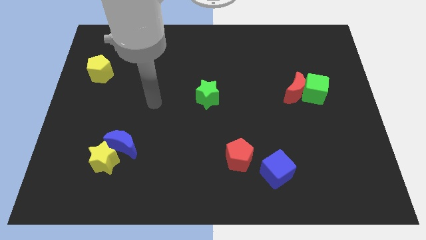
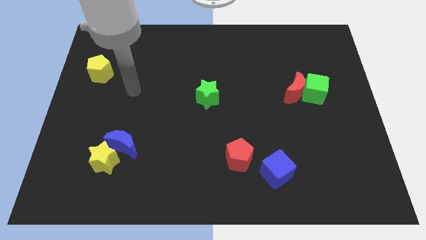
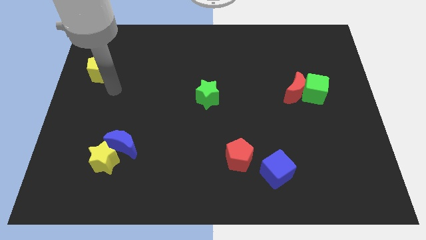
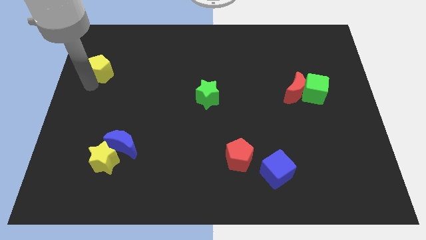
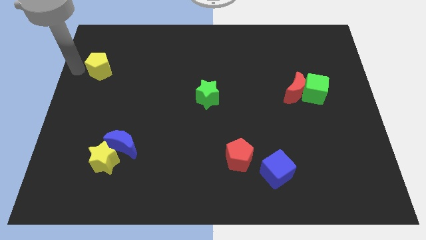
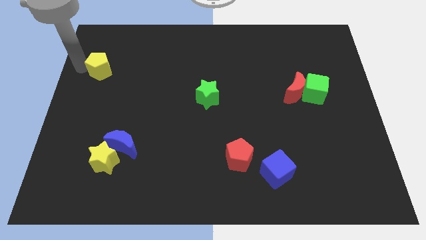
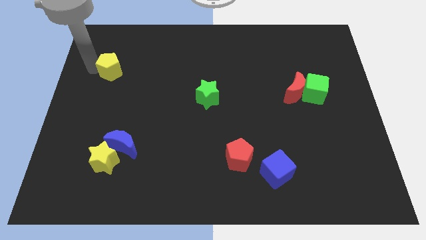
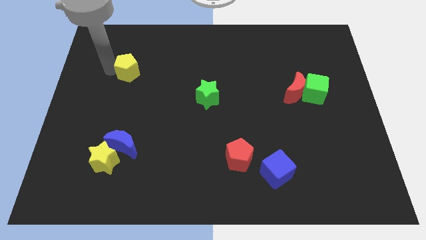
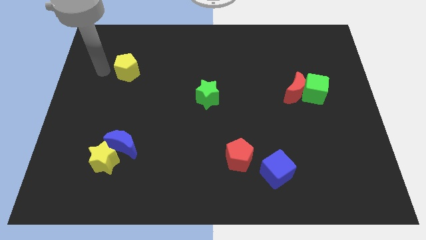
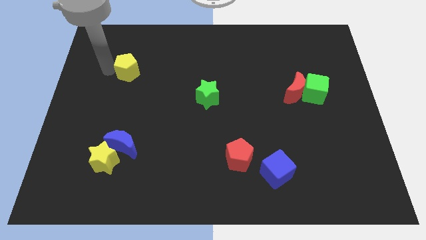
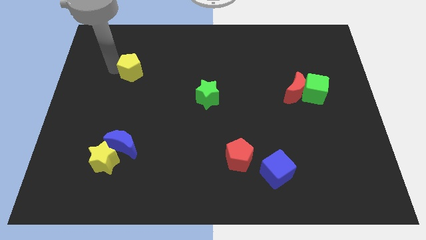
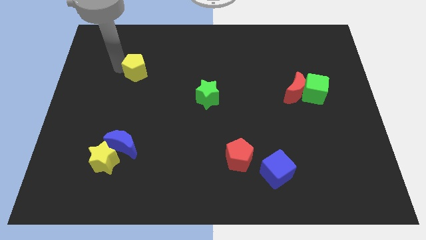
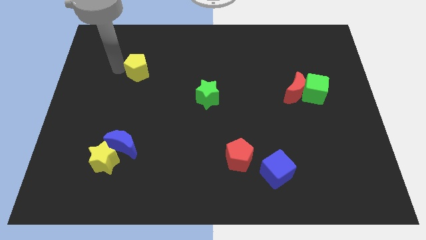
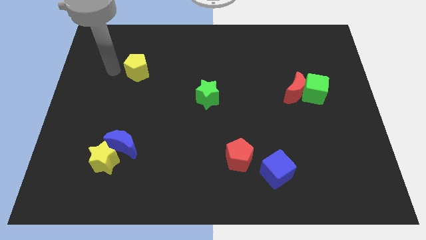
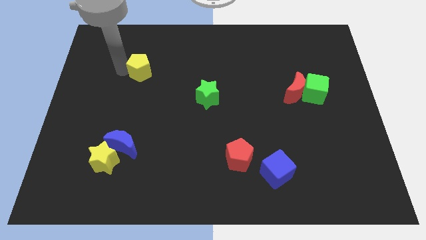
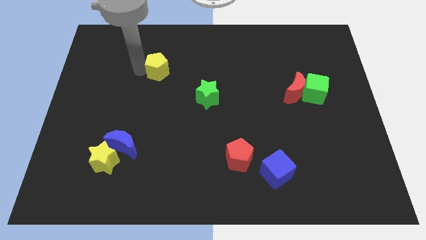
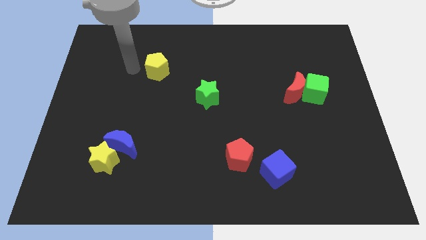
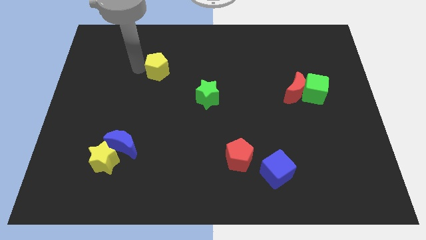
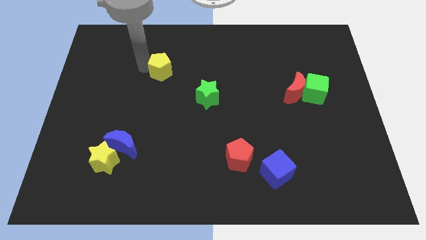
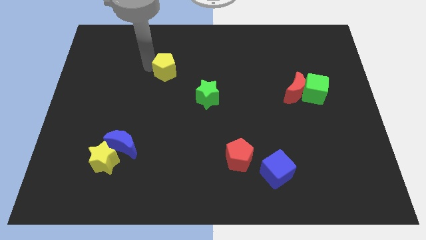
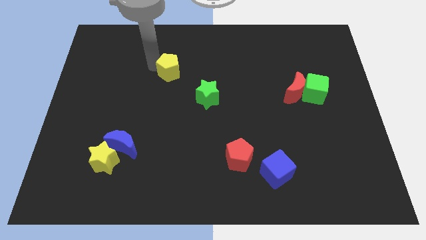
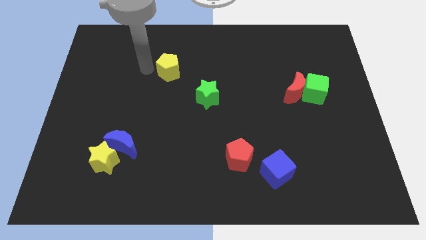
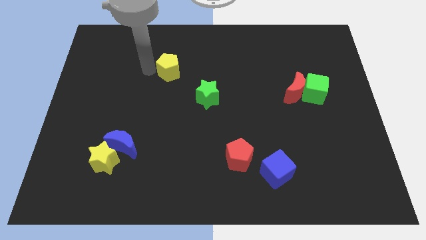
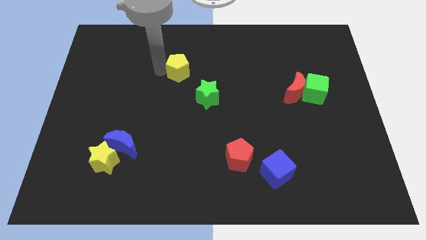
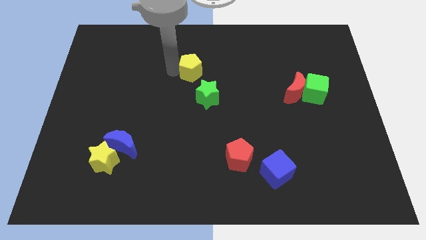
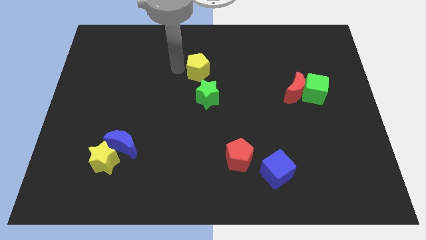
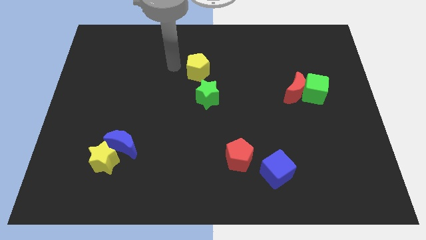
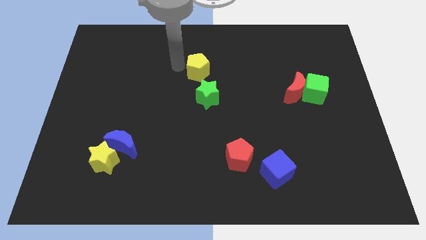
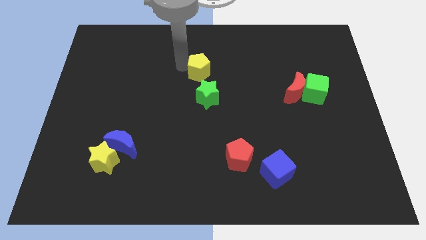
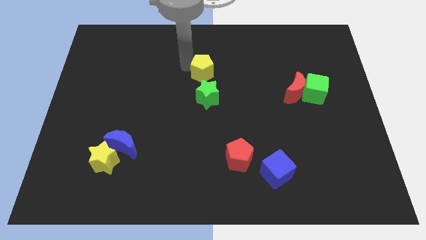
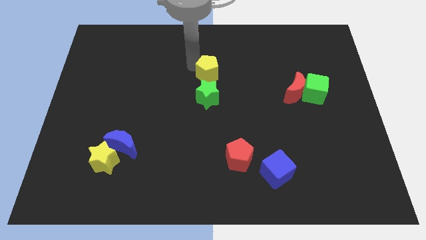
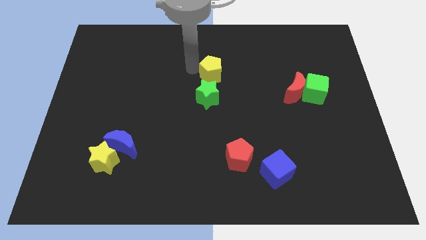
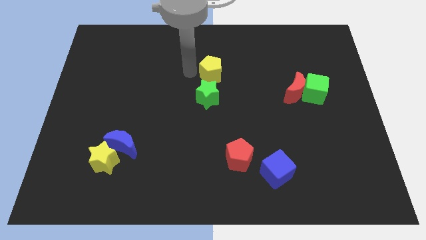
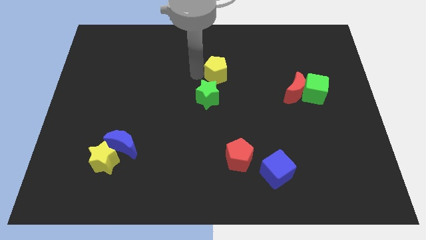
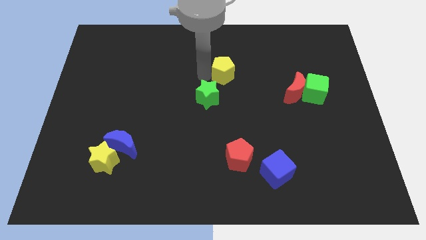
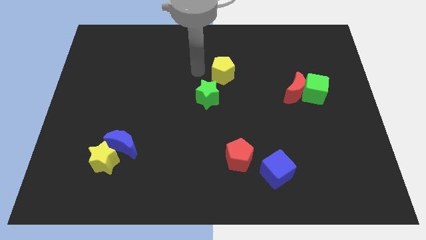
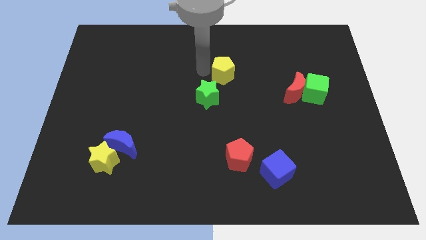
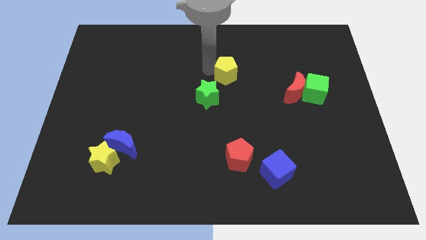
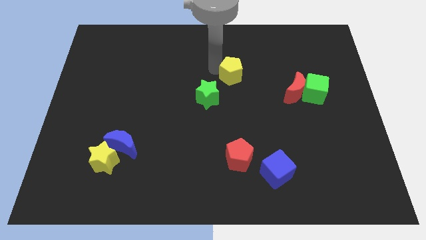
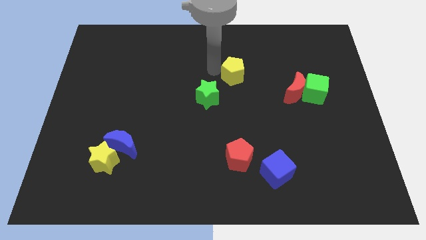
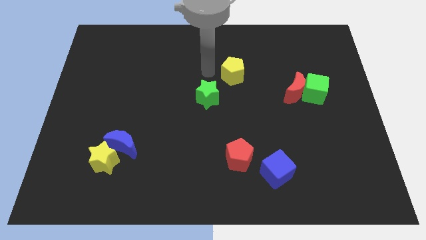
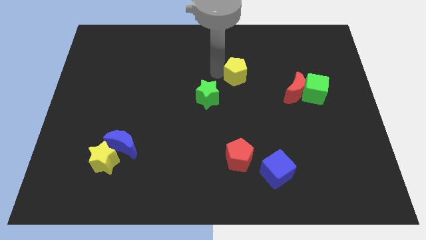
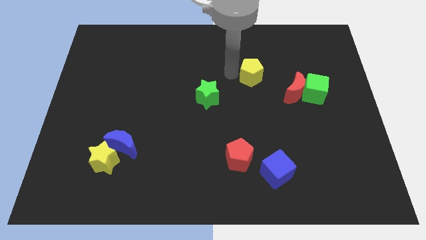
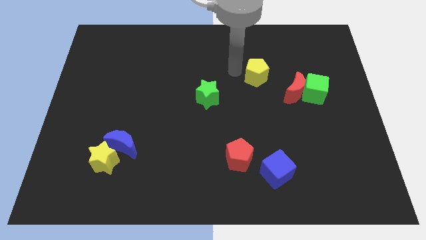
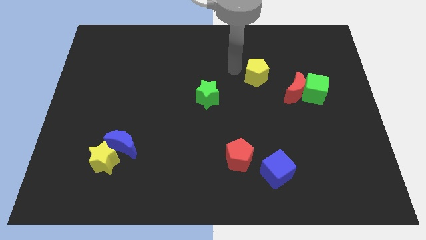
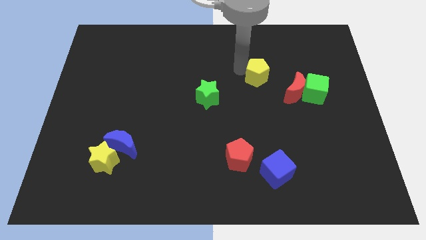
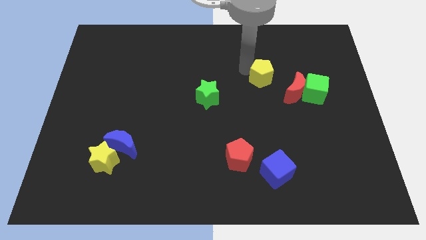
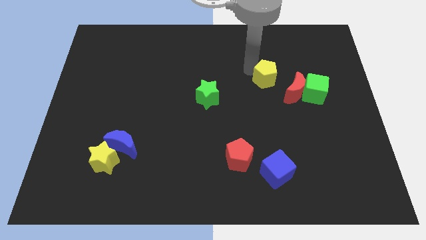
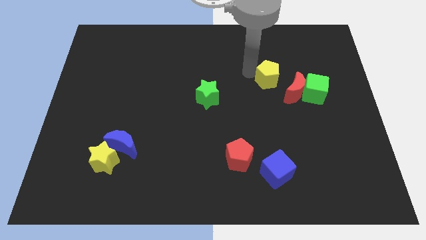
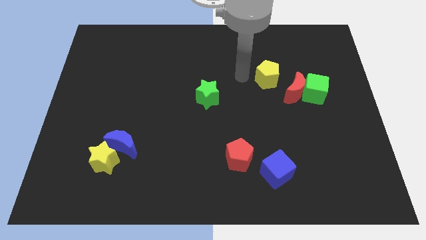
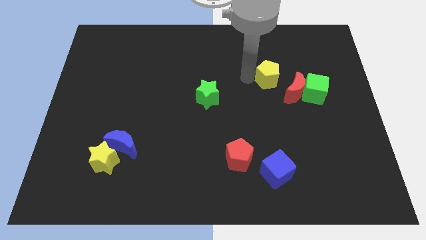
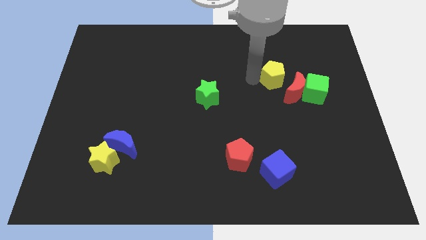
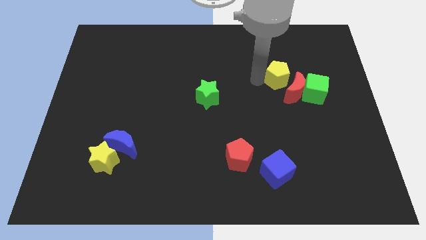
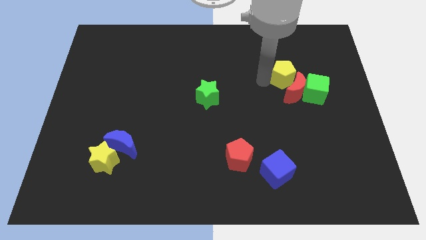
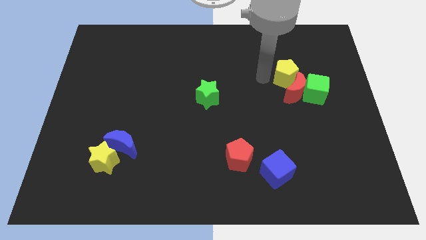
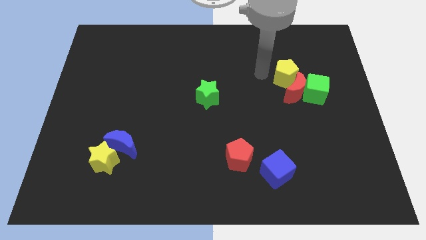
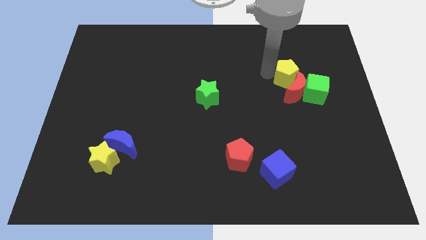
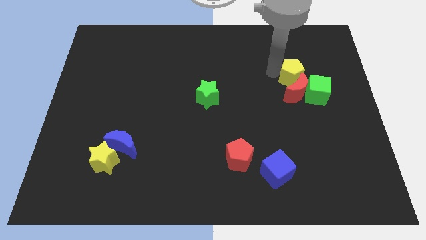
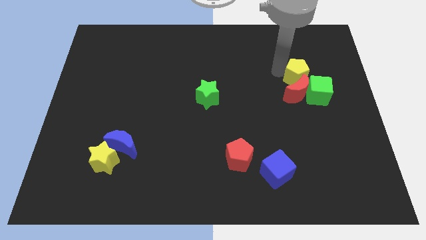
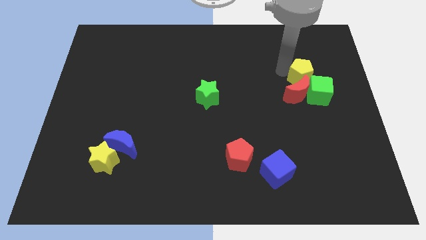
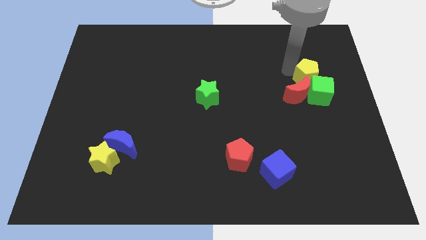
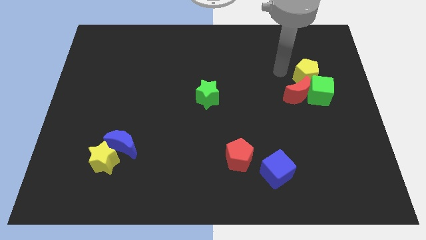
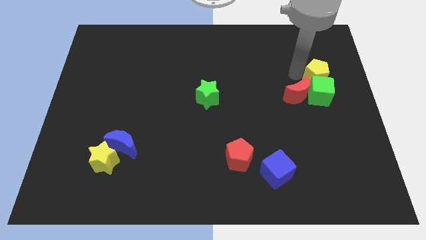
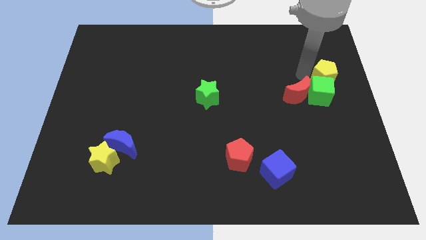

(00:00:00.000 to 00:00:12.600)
put the yellow pentagon to the right side of the board

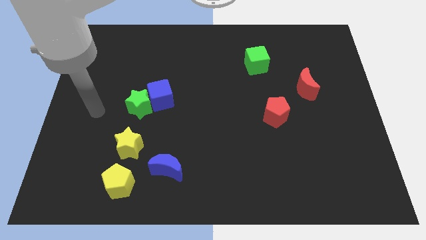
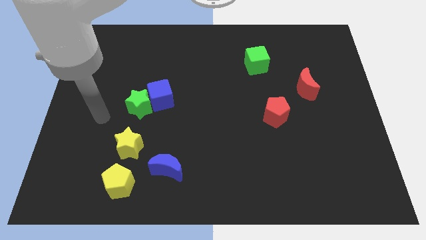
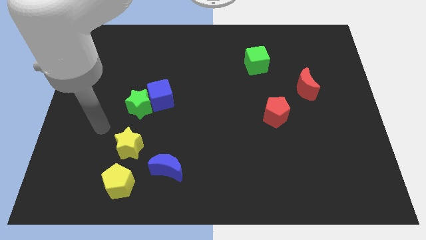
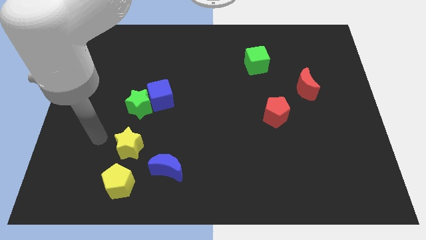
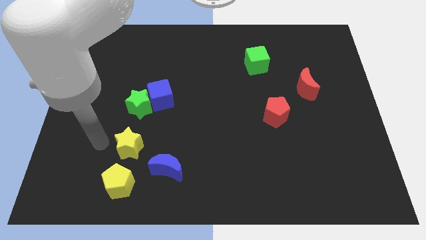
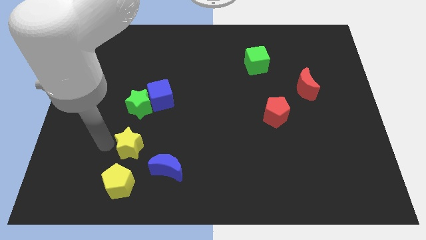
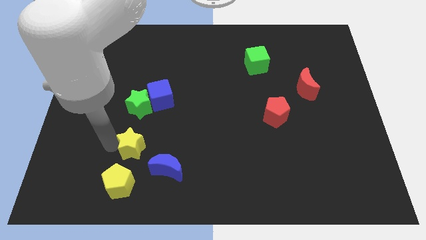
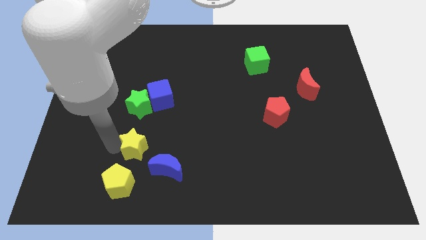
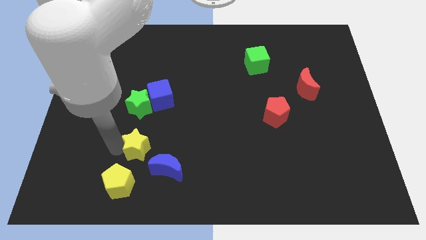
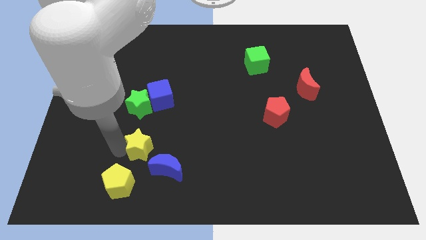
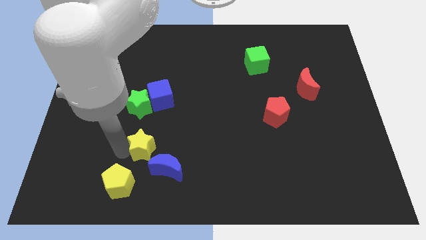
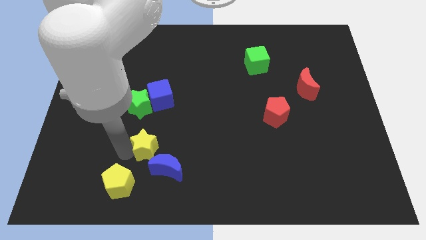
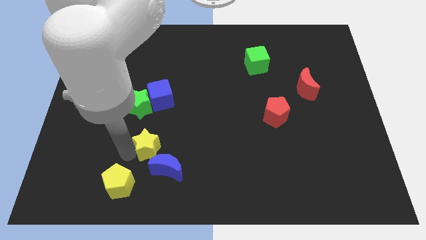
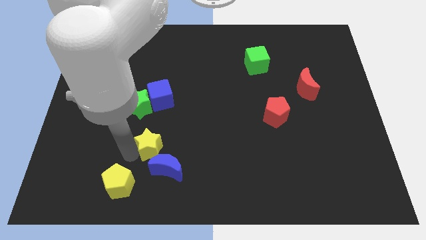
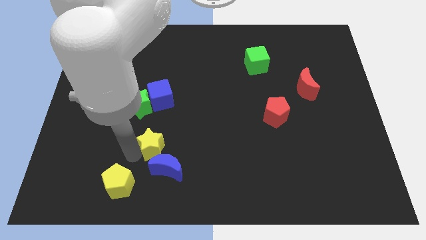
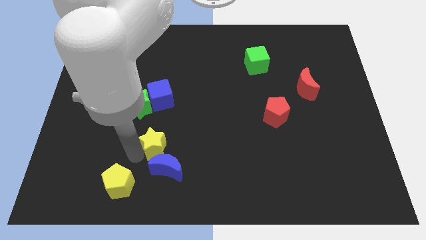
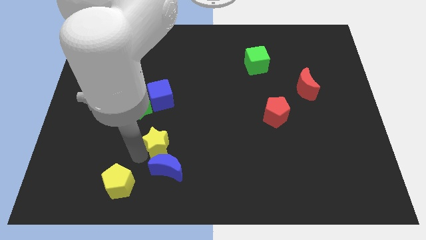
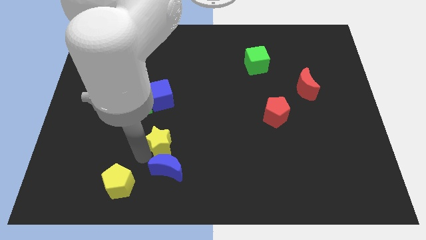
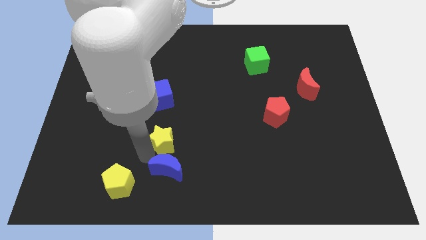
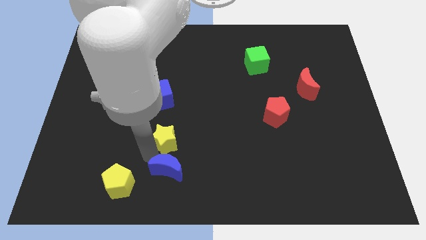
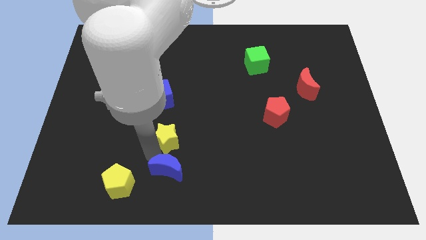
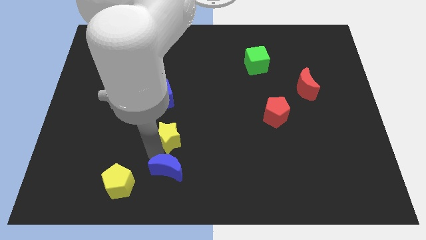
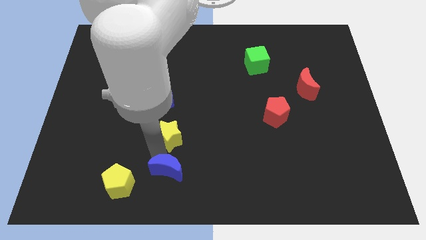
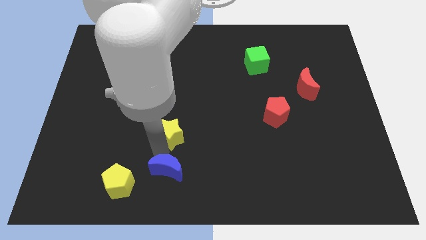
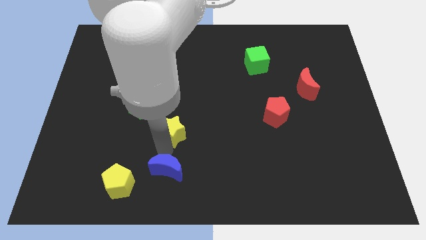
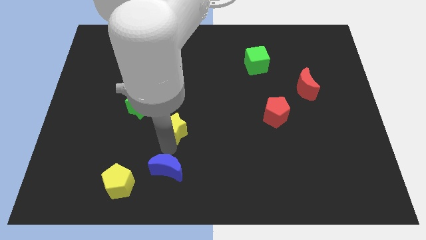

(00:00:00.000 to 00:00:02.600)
slide the yellow star to the middle of the board
